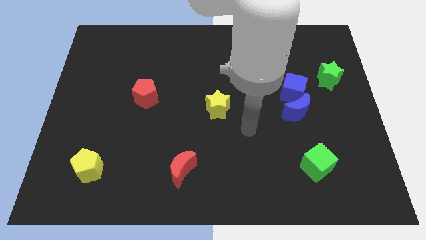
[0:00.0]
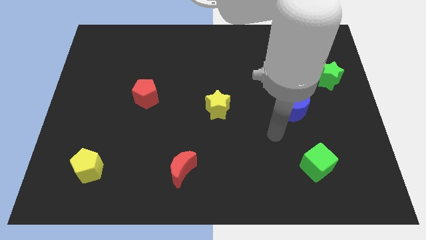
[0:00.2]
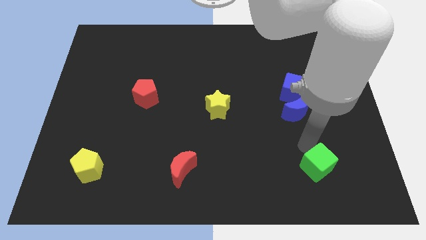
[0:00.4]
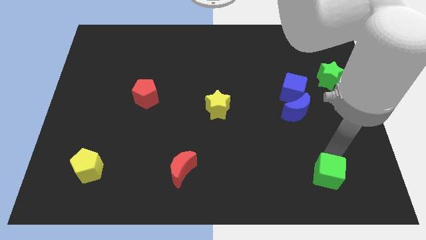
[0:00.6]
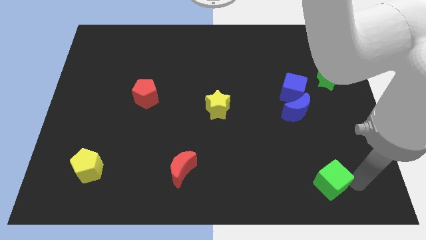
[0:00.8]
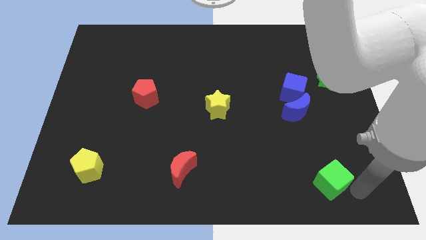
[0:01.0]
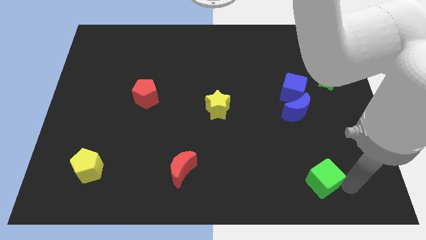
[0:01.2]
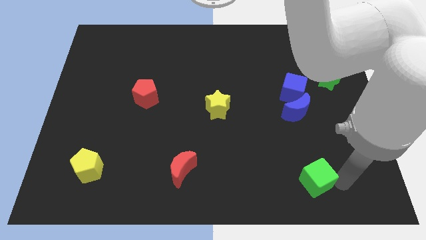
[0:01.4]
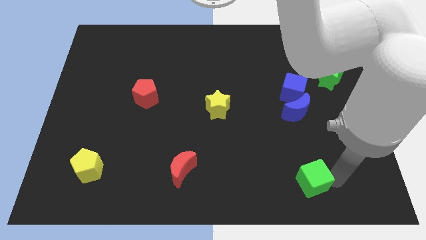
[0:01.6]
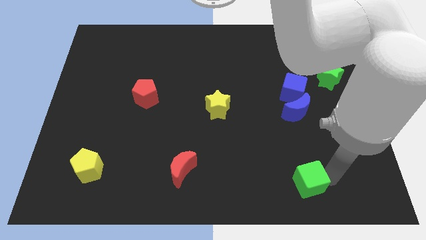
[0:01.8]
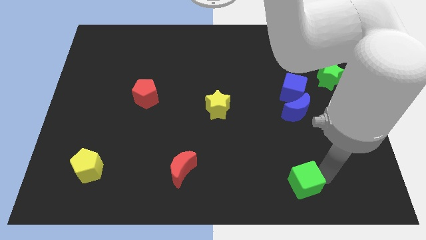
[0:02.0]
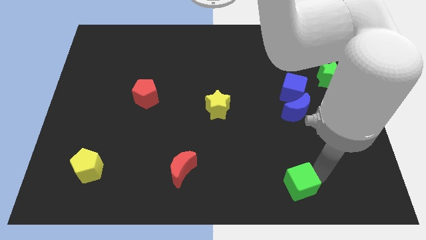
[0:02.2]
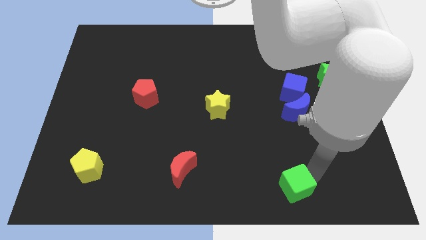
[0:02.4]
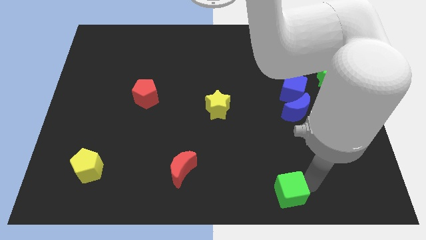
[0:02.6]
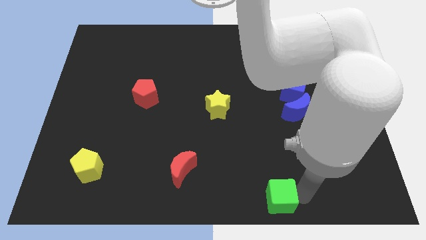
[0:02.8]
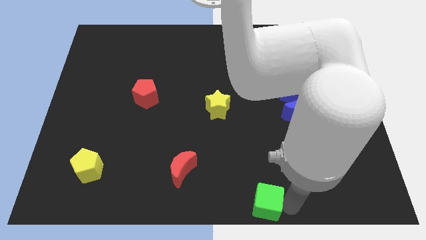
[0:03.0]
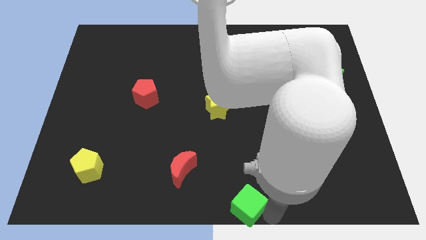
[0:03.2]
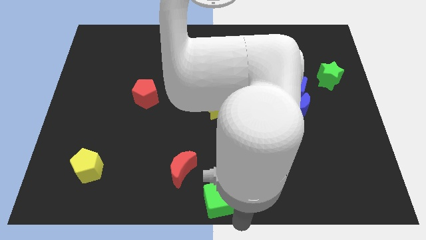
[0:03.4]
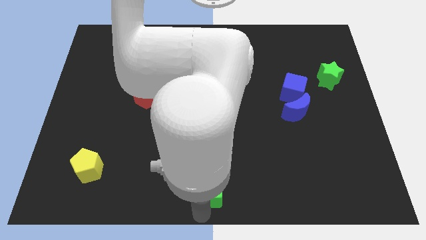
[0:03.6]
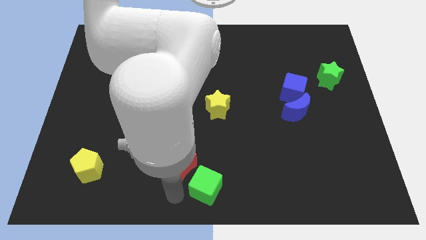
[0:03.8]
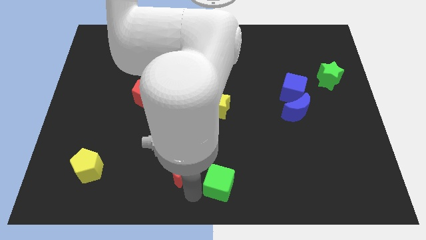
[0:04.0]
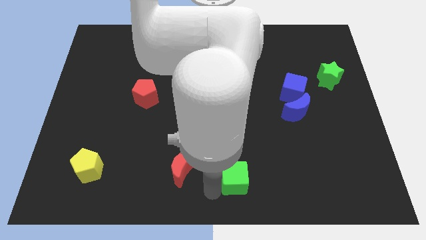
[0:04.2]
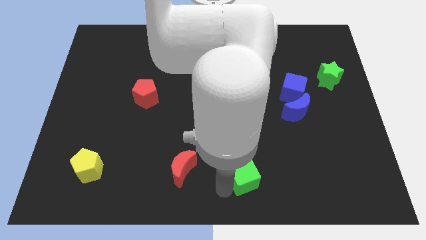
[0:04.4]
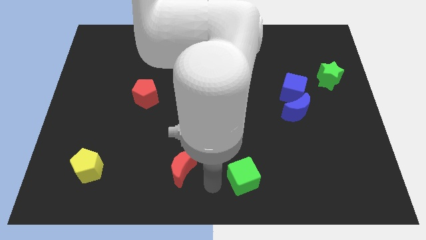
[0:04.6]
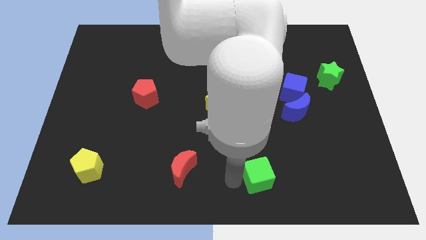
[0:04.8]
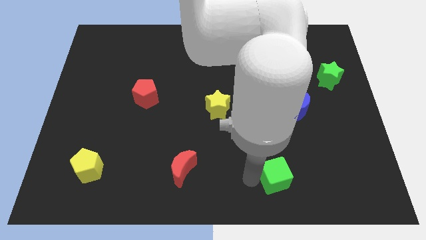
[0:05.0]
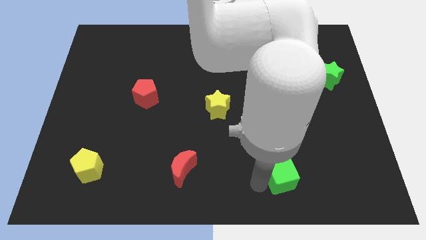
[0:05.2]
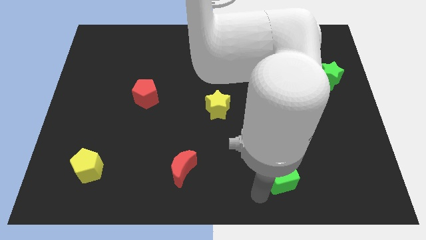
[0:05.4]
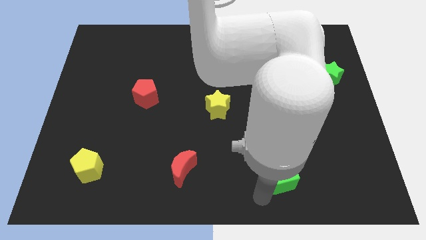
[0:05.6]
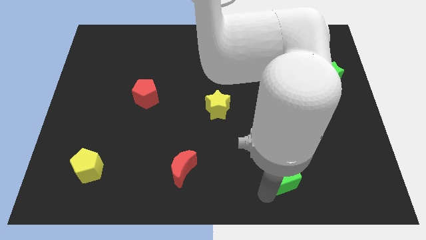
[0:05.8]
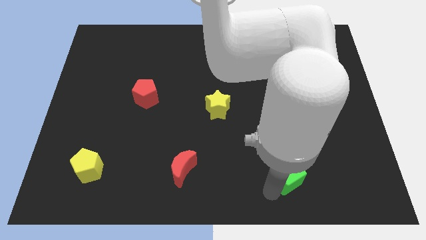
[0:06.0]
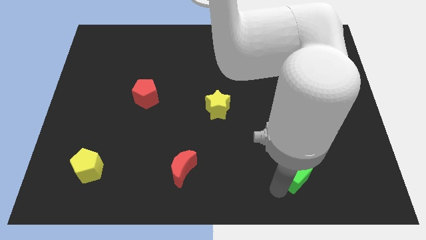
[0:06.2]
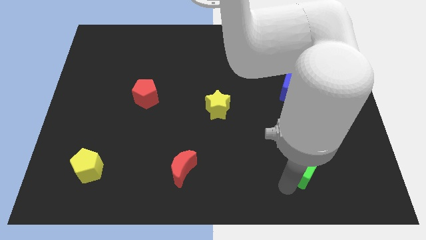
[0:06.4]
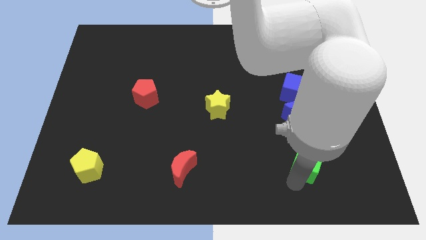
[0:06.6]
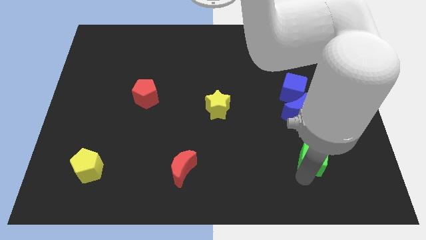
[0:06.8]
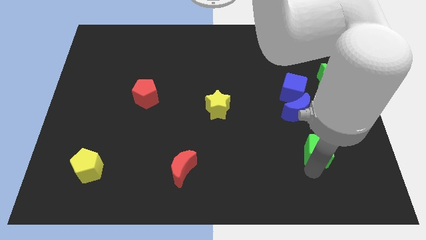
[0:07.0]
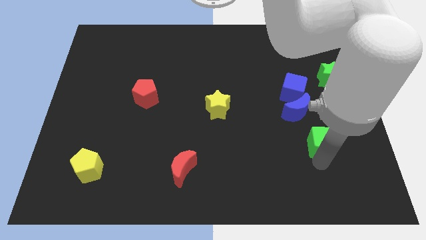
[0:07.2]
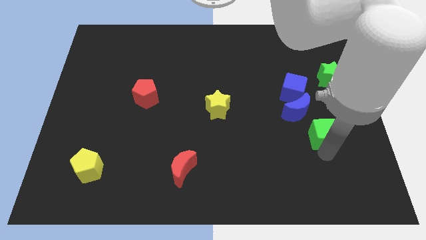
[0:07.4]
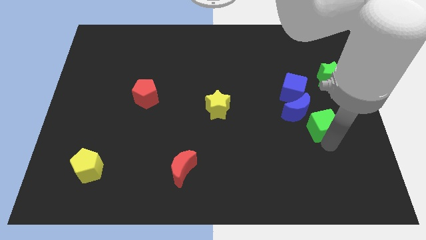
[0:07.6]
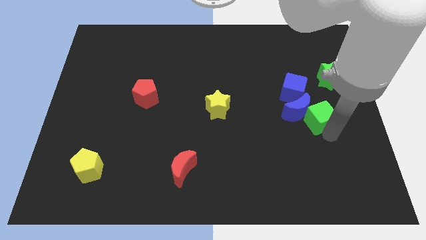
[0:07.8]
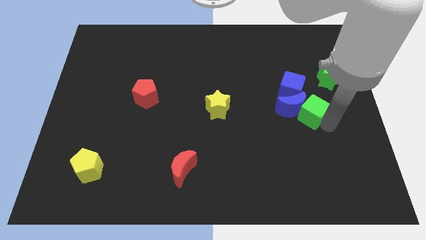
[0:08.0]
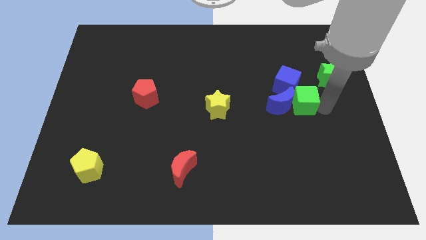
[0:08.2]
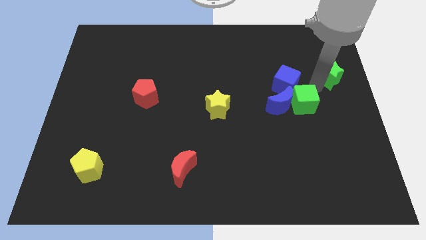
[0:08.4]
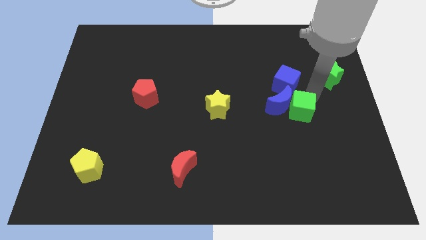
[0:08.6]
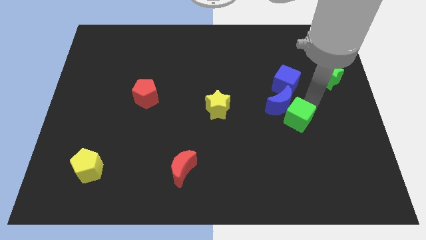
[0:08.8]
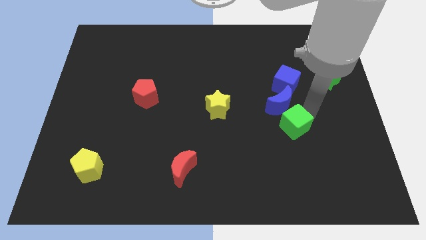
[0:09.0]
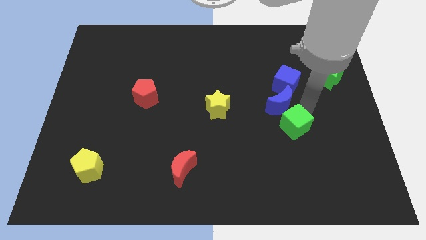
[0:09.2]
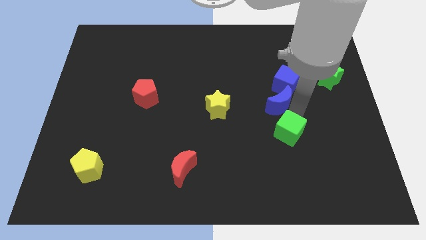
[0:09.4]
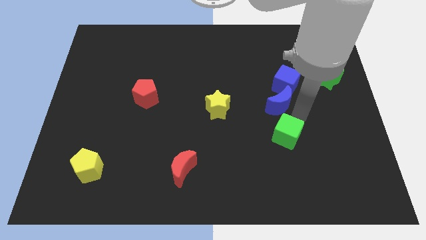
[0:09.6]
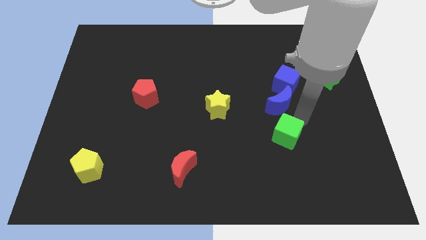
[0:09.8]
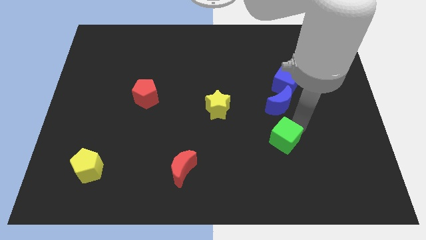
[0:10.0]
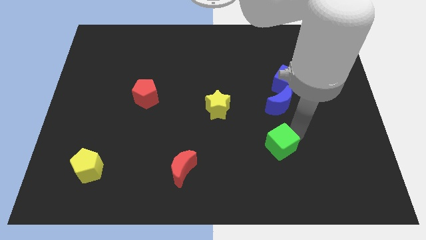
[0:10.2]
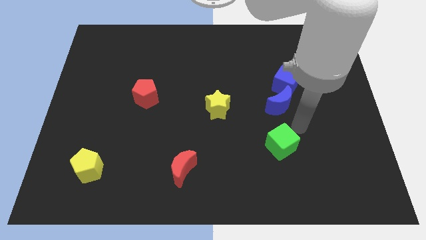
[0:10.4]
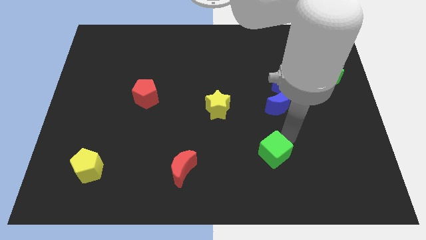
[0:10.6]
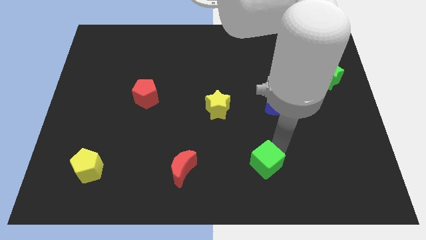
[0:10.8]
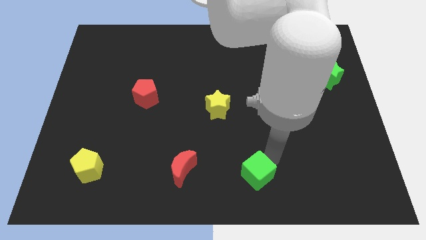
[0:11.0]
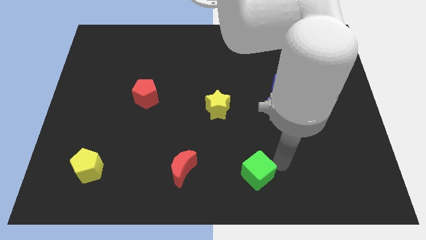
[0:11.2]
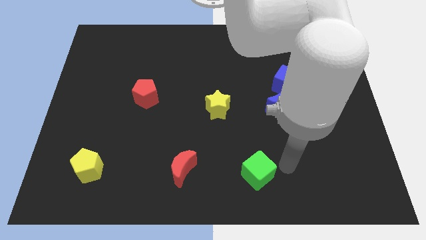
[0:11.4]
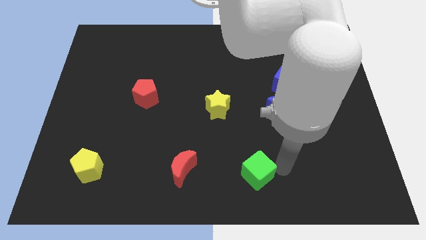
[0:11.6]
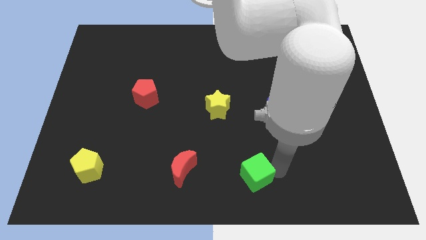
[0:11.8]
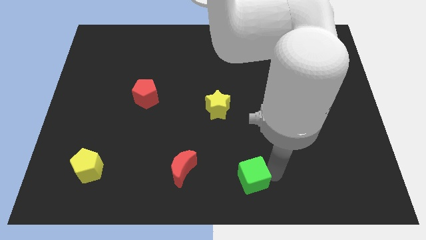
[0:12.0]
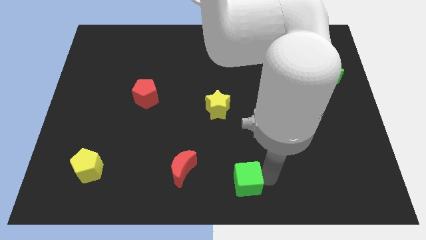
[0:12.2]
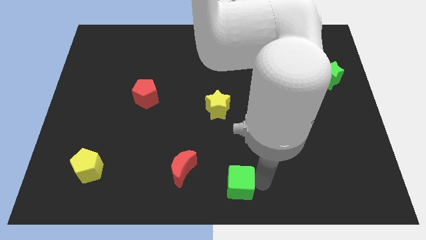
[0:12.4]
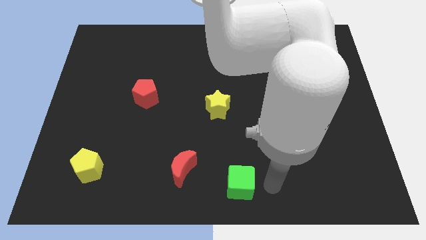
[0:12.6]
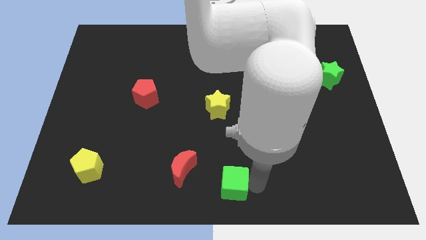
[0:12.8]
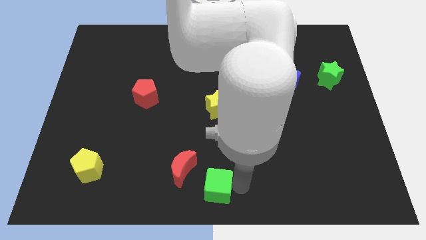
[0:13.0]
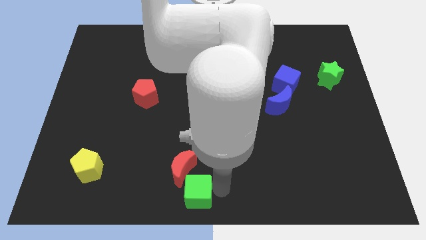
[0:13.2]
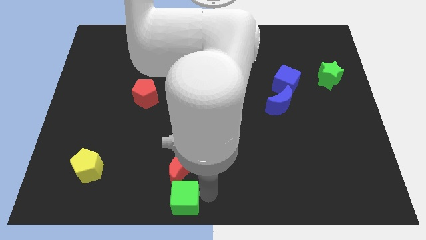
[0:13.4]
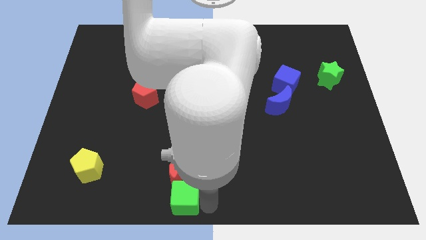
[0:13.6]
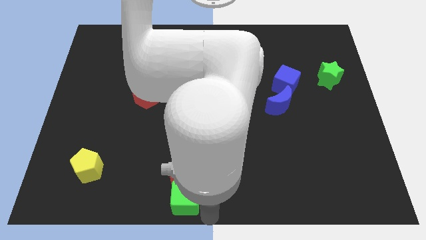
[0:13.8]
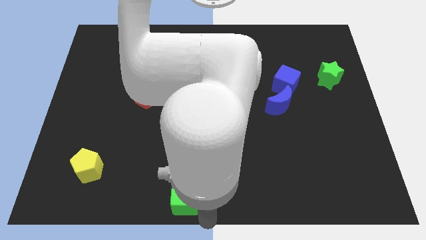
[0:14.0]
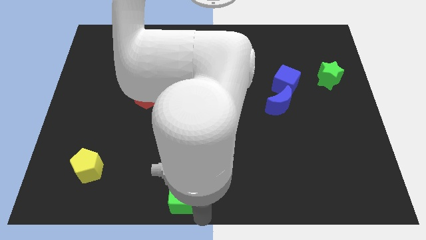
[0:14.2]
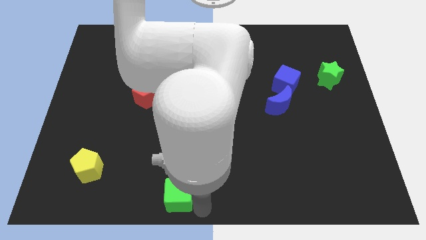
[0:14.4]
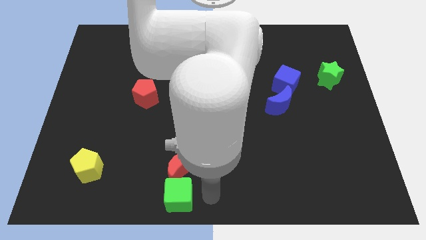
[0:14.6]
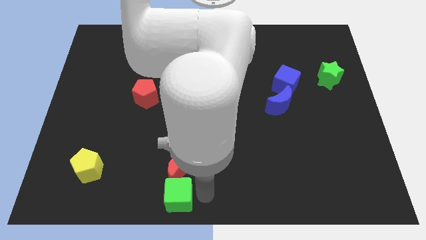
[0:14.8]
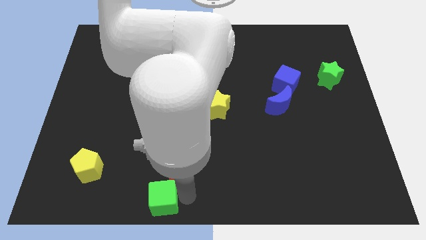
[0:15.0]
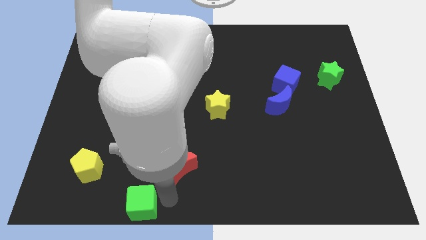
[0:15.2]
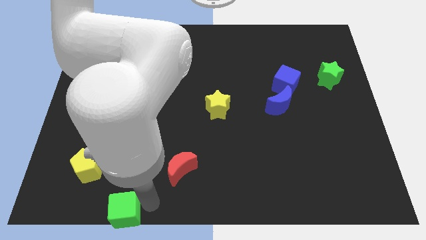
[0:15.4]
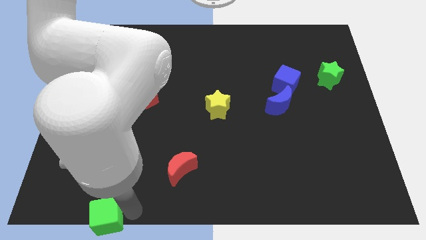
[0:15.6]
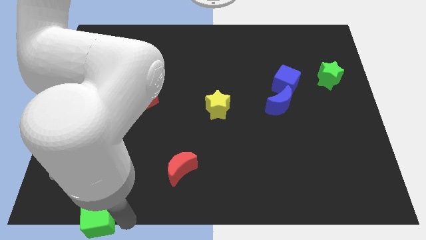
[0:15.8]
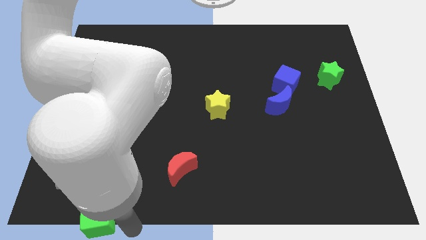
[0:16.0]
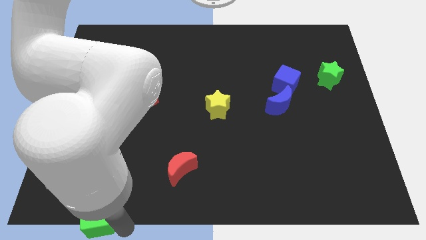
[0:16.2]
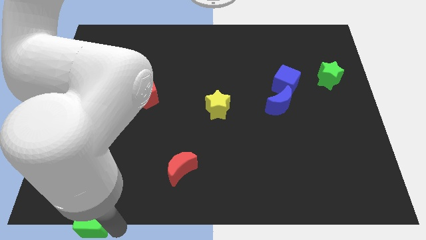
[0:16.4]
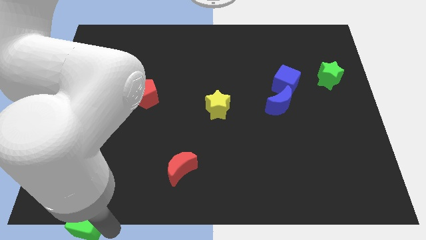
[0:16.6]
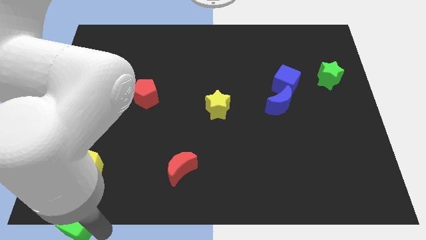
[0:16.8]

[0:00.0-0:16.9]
push the green cube to the lower left corner
